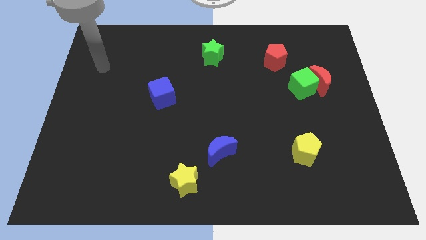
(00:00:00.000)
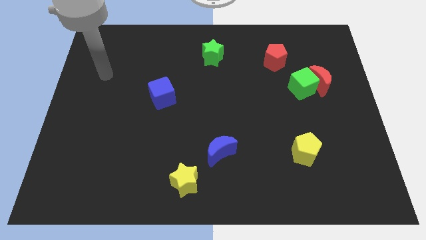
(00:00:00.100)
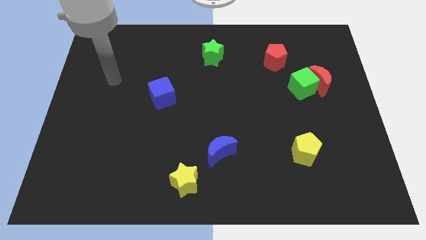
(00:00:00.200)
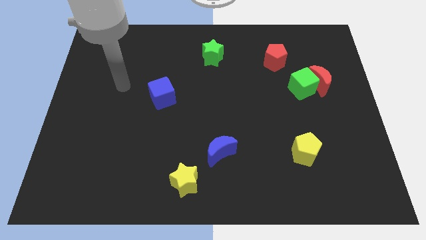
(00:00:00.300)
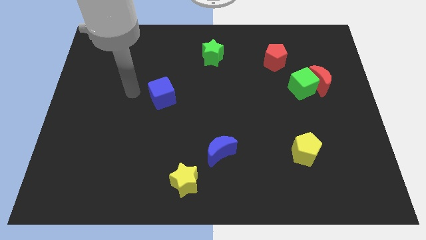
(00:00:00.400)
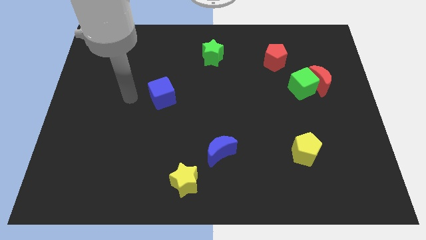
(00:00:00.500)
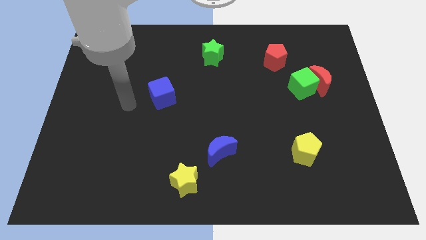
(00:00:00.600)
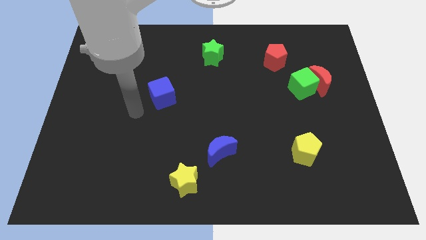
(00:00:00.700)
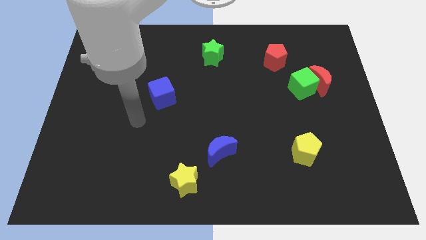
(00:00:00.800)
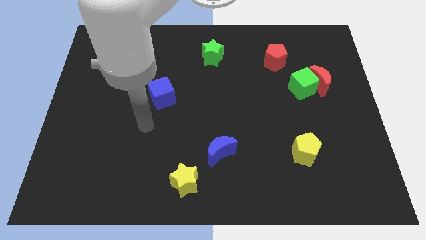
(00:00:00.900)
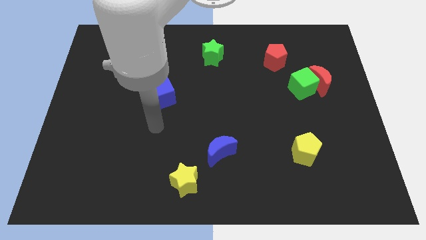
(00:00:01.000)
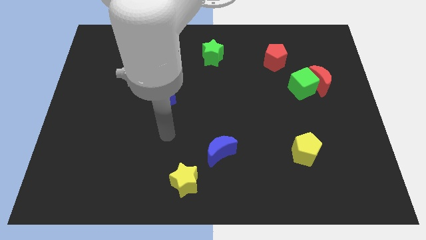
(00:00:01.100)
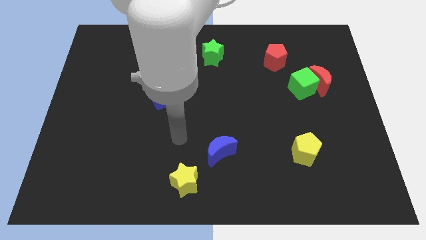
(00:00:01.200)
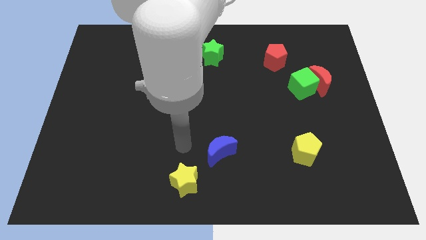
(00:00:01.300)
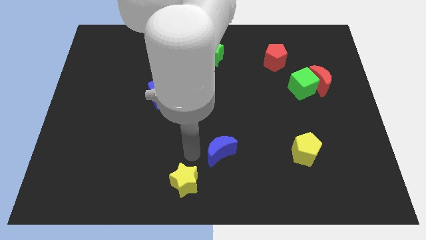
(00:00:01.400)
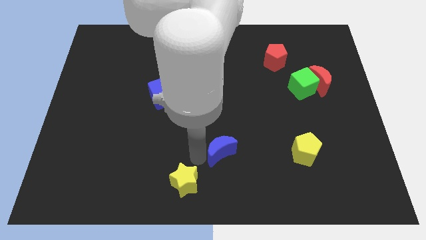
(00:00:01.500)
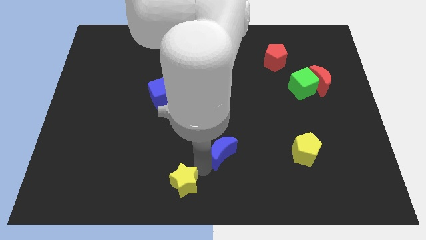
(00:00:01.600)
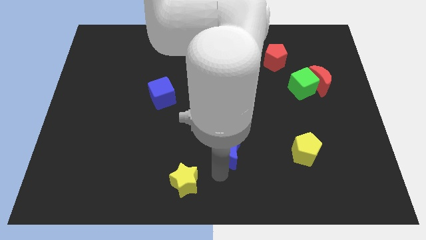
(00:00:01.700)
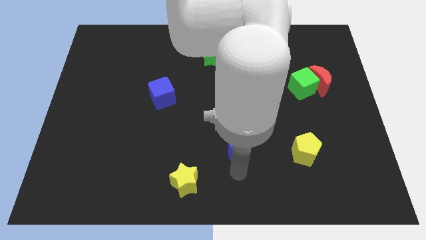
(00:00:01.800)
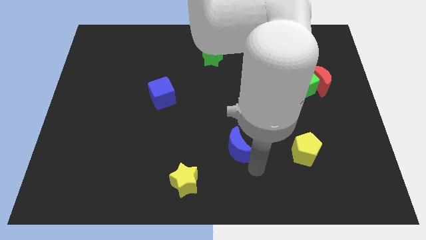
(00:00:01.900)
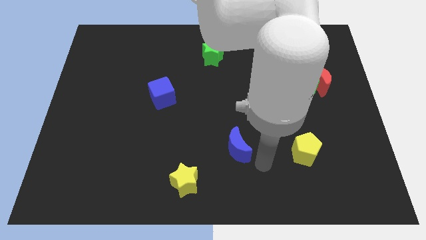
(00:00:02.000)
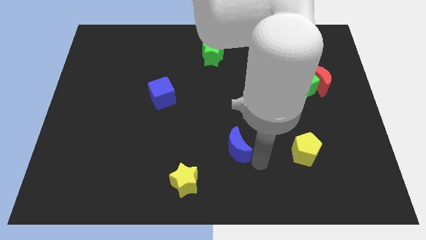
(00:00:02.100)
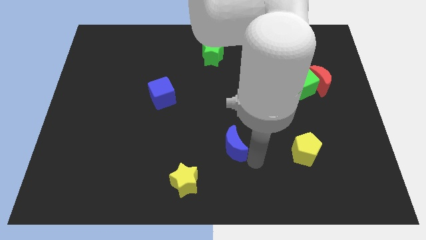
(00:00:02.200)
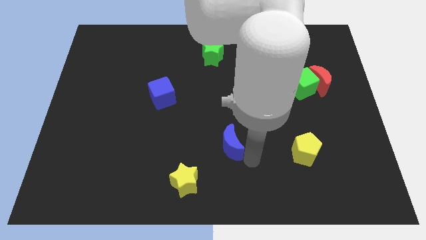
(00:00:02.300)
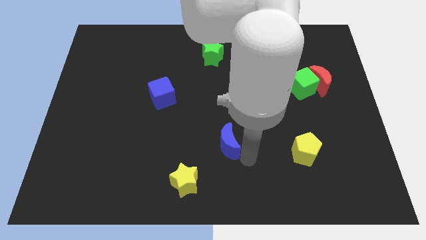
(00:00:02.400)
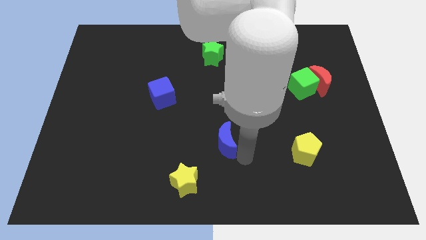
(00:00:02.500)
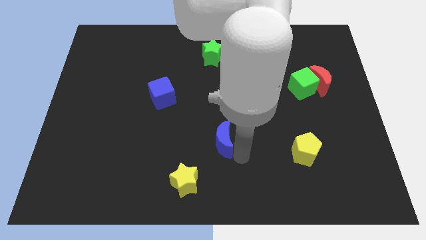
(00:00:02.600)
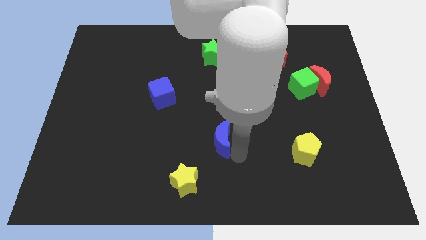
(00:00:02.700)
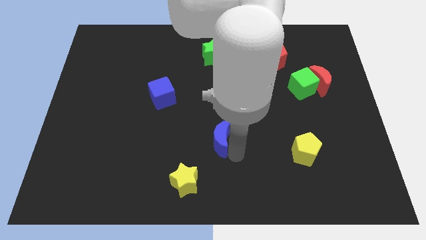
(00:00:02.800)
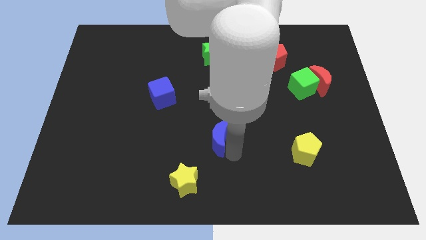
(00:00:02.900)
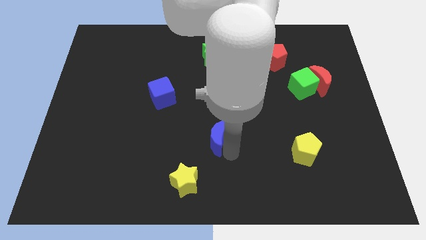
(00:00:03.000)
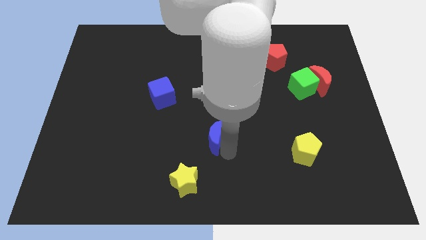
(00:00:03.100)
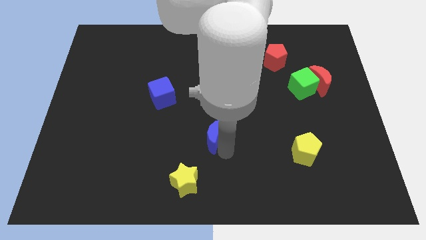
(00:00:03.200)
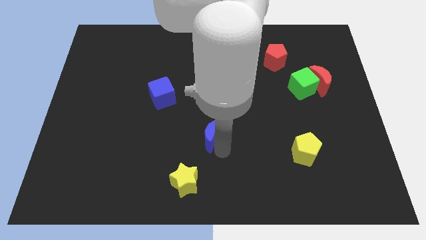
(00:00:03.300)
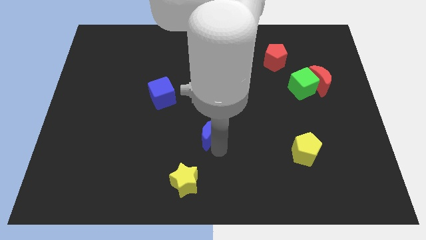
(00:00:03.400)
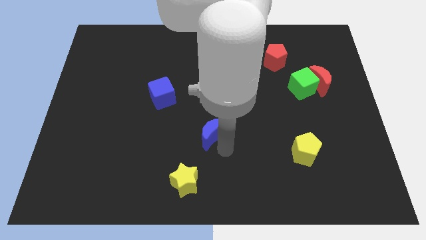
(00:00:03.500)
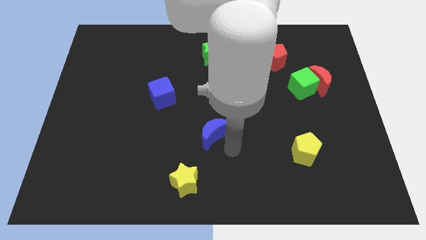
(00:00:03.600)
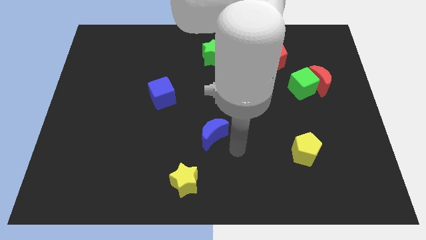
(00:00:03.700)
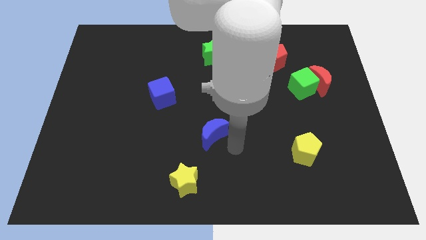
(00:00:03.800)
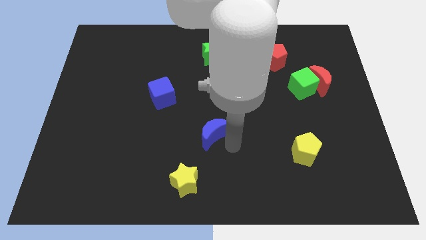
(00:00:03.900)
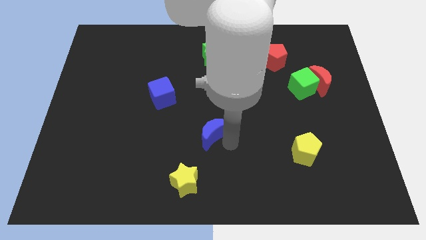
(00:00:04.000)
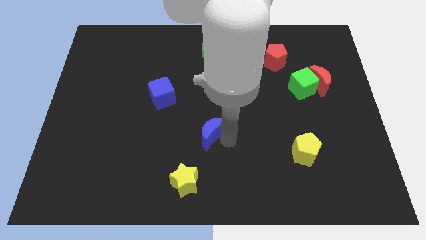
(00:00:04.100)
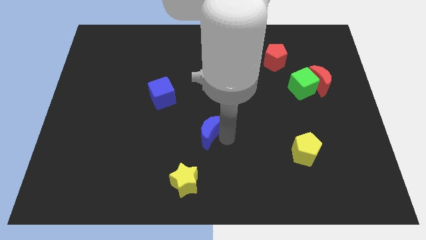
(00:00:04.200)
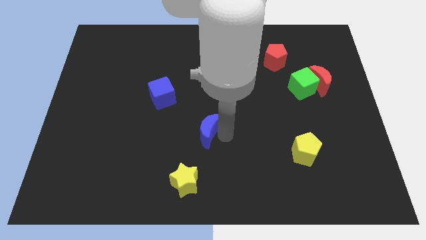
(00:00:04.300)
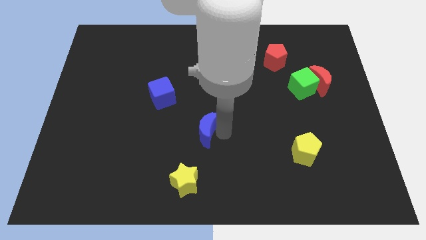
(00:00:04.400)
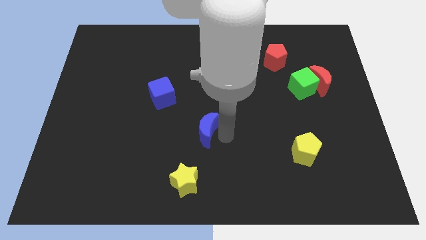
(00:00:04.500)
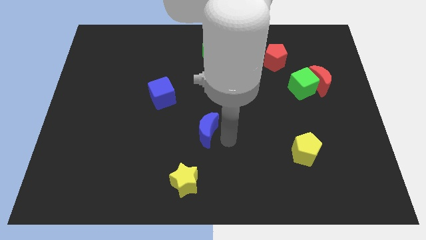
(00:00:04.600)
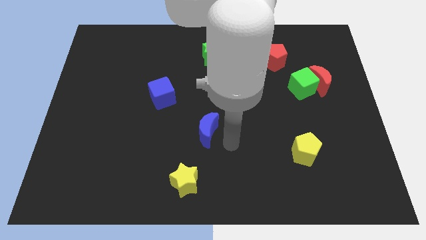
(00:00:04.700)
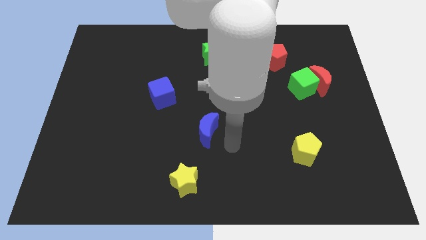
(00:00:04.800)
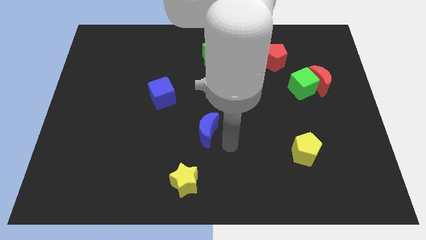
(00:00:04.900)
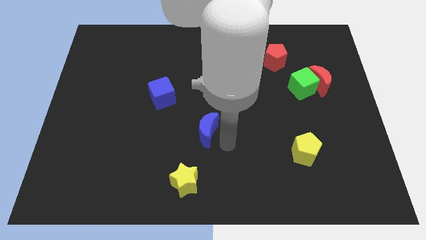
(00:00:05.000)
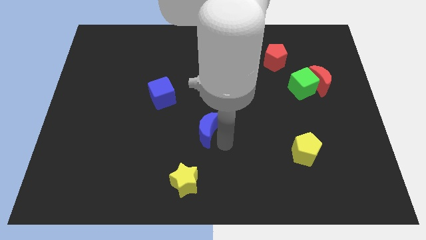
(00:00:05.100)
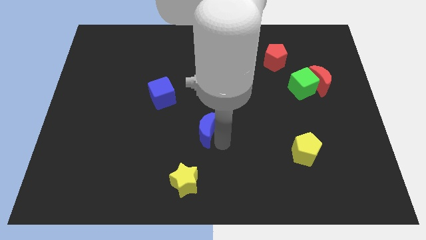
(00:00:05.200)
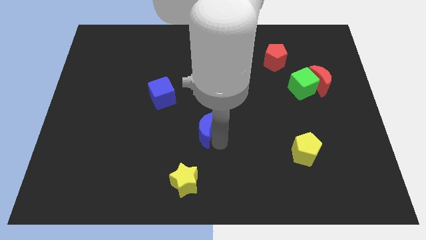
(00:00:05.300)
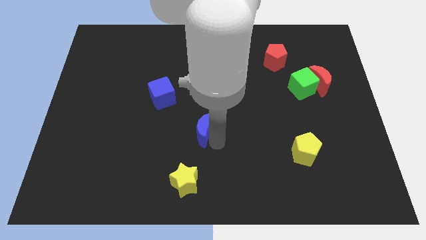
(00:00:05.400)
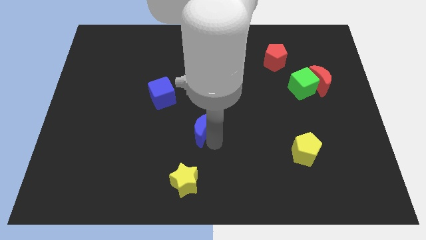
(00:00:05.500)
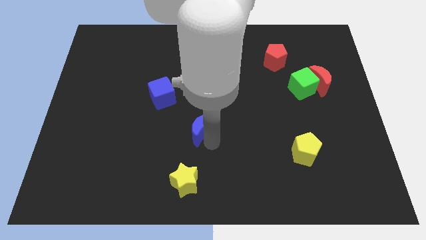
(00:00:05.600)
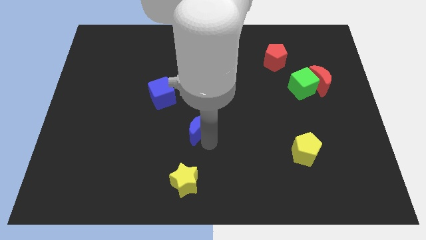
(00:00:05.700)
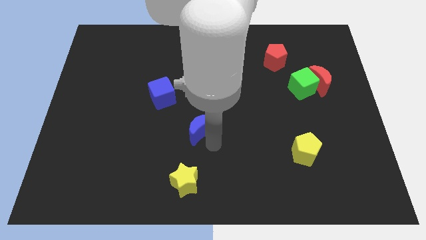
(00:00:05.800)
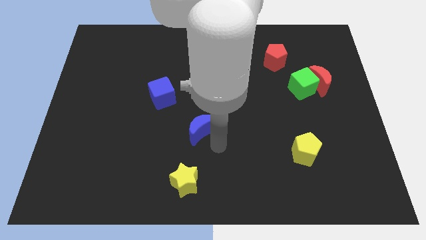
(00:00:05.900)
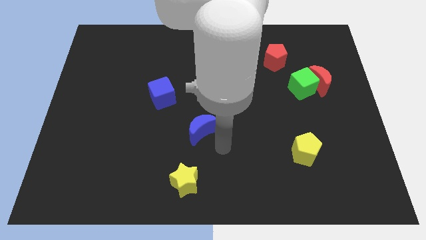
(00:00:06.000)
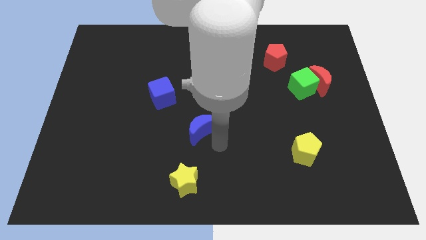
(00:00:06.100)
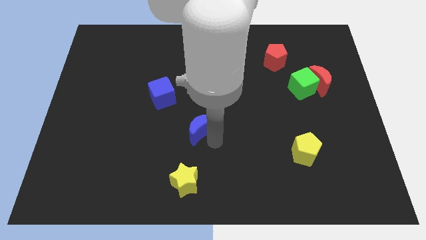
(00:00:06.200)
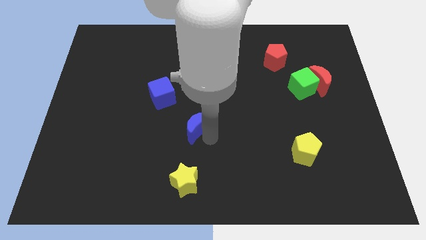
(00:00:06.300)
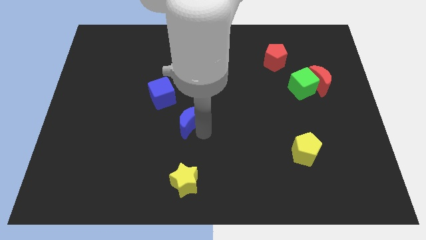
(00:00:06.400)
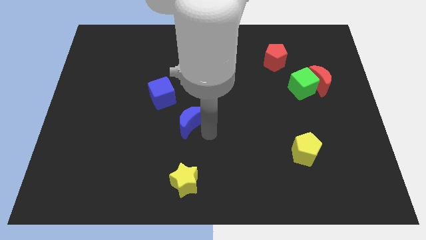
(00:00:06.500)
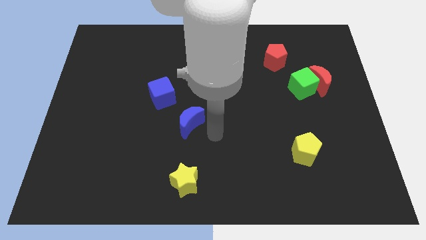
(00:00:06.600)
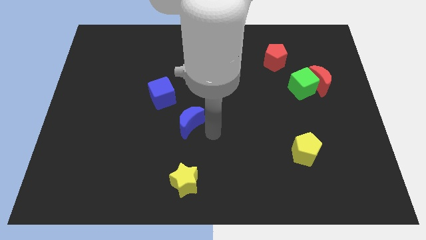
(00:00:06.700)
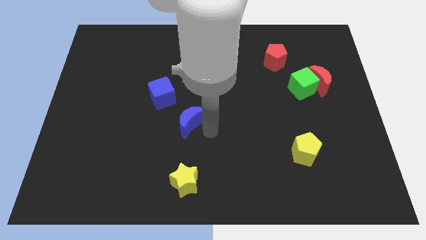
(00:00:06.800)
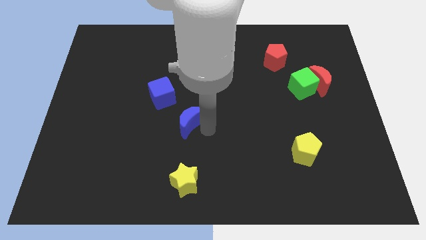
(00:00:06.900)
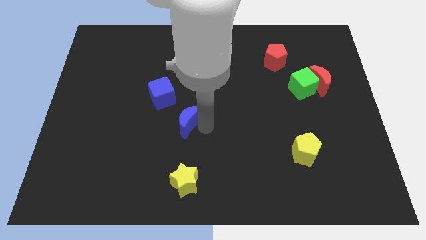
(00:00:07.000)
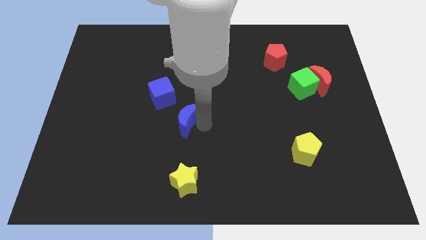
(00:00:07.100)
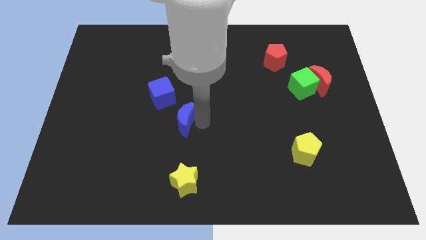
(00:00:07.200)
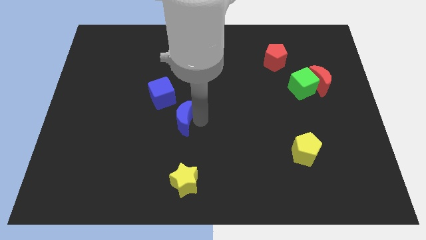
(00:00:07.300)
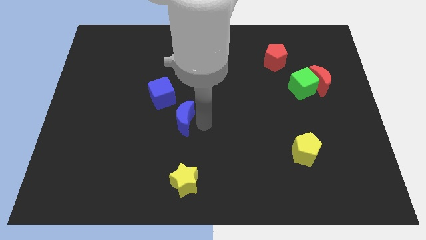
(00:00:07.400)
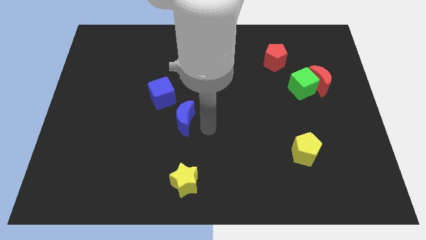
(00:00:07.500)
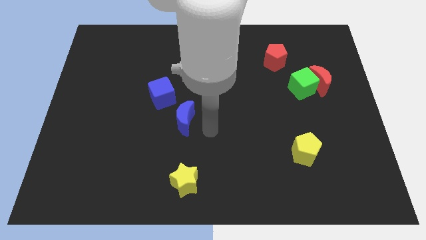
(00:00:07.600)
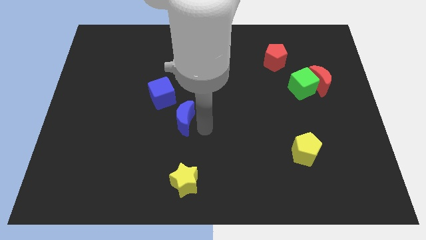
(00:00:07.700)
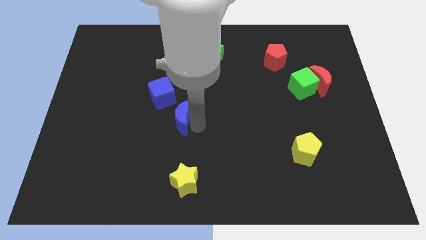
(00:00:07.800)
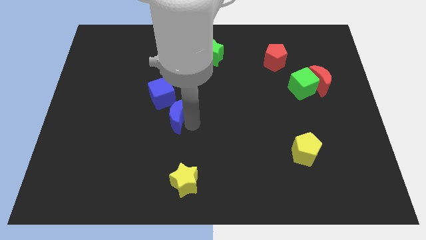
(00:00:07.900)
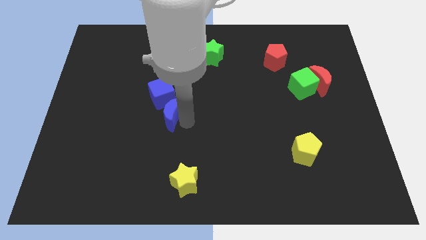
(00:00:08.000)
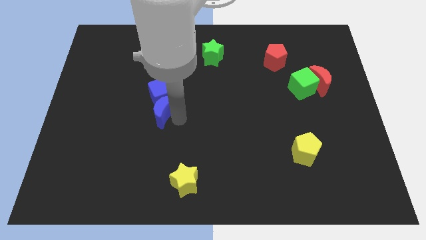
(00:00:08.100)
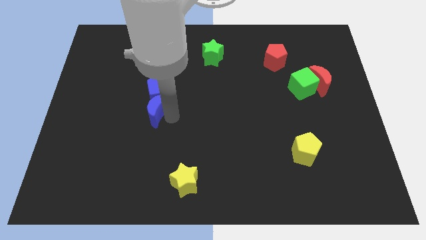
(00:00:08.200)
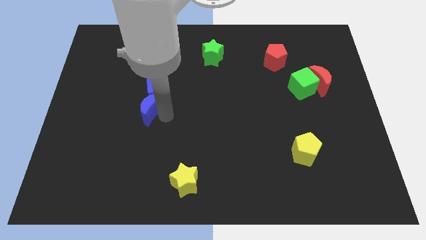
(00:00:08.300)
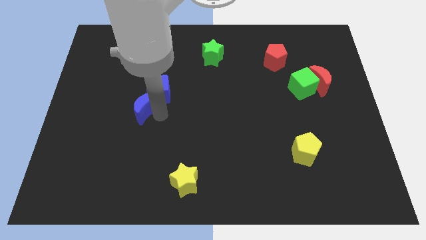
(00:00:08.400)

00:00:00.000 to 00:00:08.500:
slide the blue moon diagonally upwards and to the left
